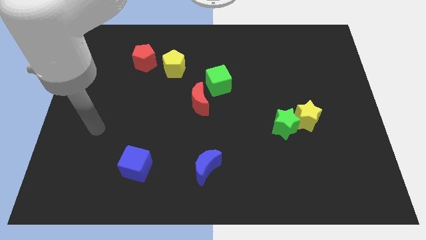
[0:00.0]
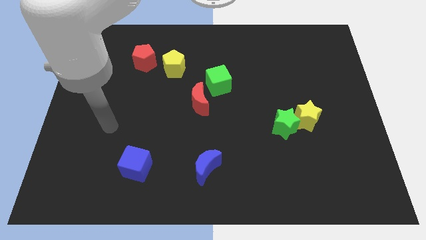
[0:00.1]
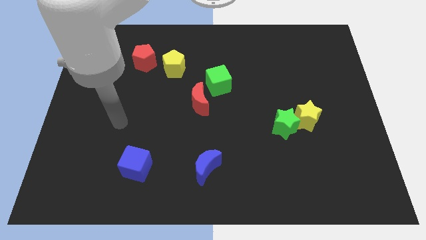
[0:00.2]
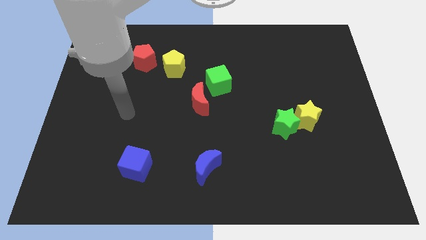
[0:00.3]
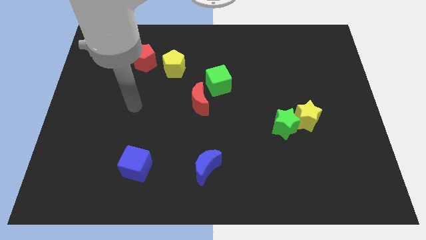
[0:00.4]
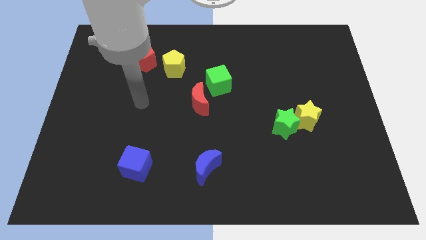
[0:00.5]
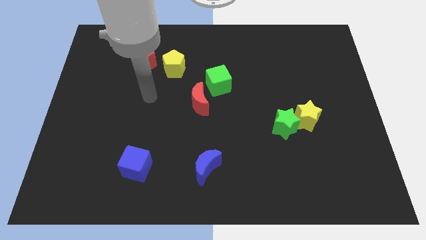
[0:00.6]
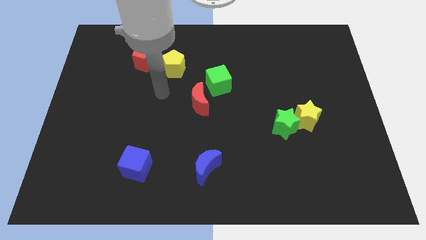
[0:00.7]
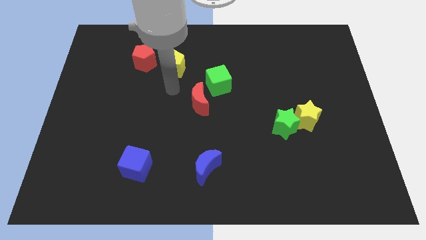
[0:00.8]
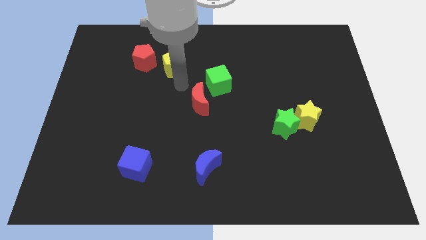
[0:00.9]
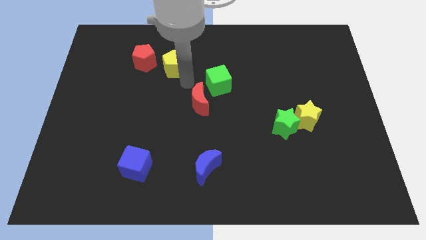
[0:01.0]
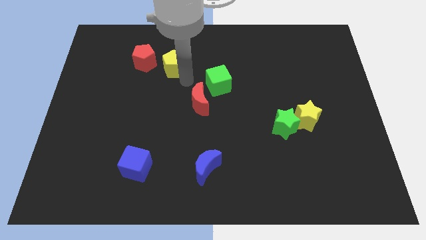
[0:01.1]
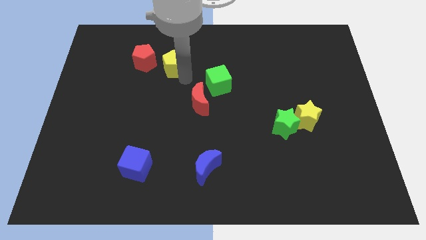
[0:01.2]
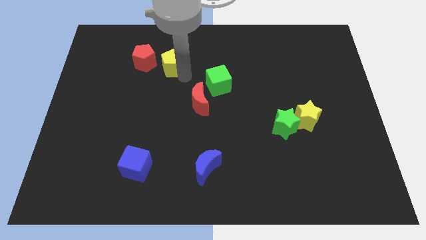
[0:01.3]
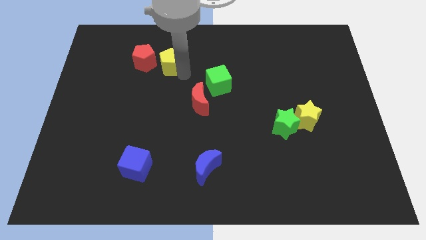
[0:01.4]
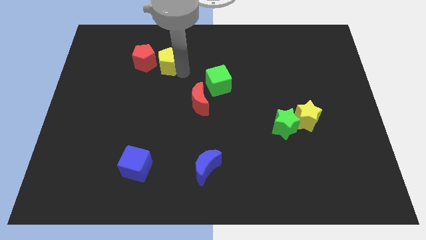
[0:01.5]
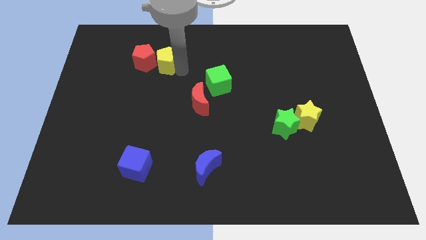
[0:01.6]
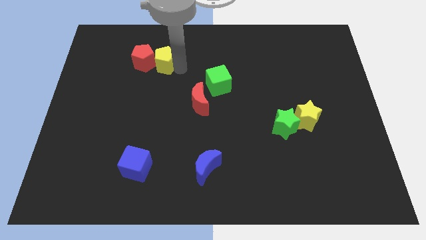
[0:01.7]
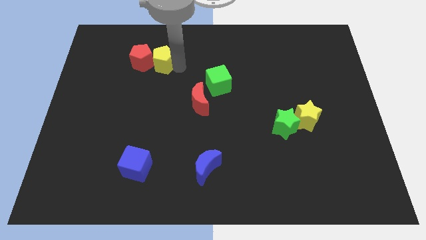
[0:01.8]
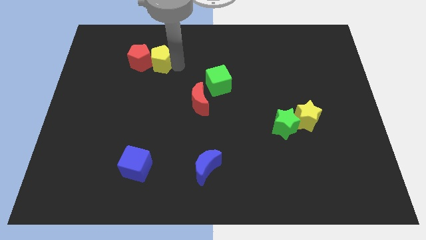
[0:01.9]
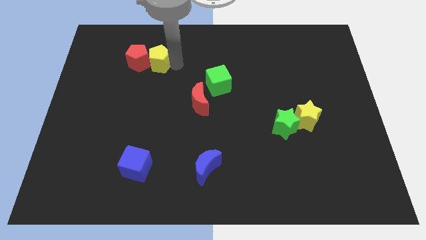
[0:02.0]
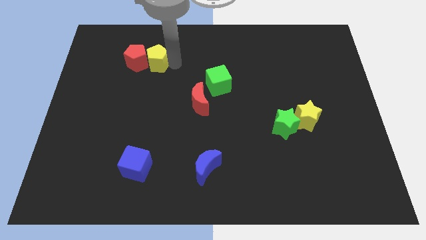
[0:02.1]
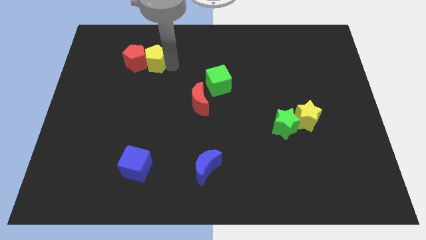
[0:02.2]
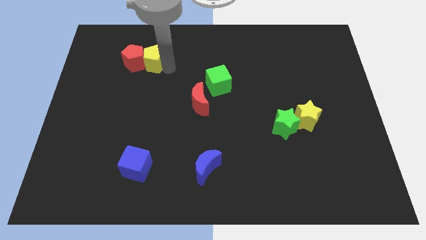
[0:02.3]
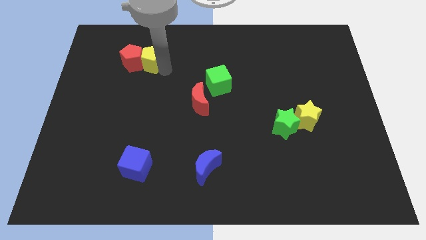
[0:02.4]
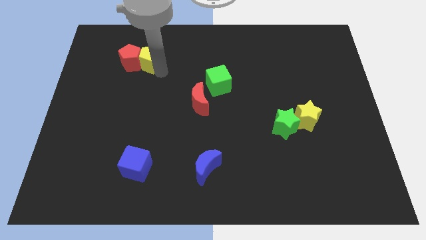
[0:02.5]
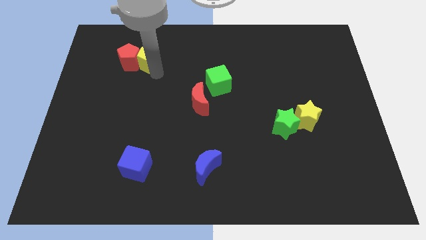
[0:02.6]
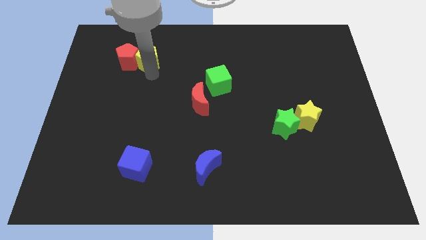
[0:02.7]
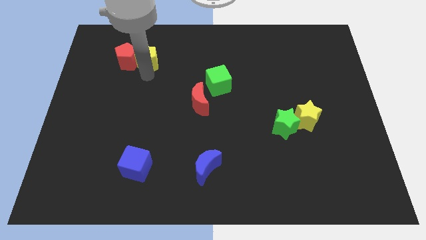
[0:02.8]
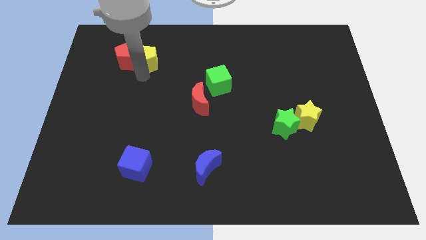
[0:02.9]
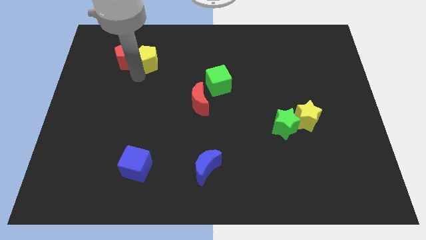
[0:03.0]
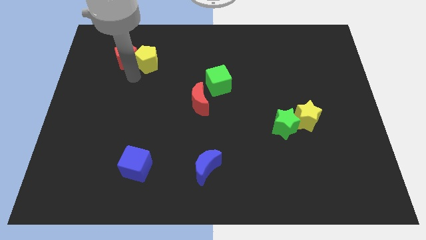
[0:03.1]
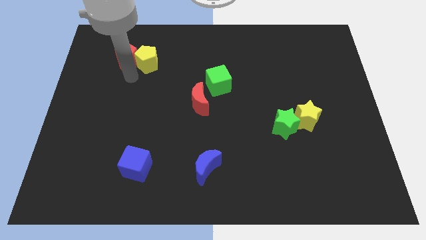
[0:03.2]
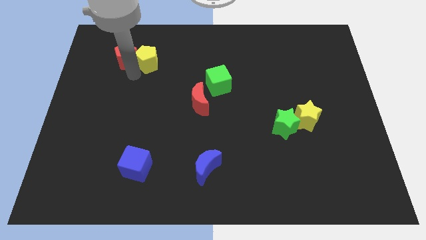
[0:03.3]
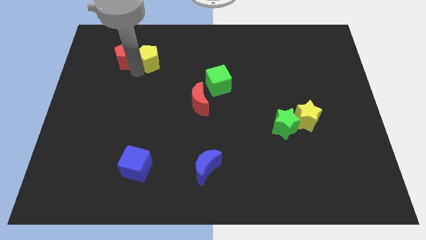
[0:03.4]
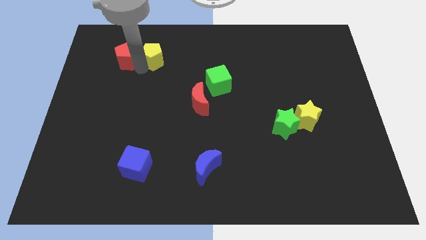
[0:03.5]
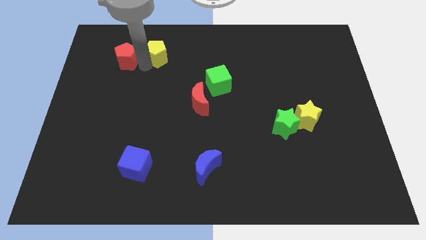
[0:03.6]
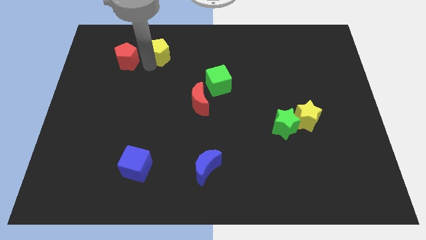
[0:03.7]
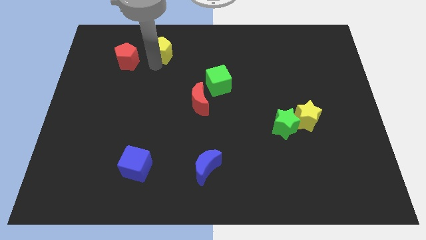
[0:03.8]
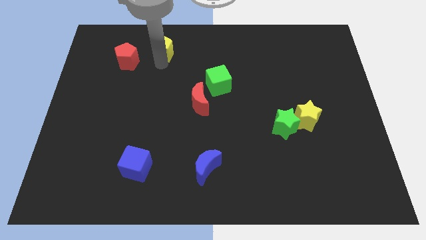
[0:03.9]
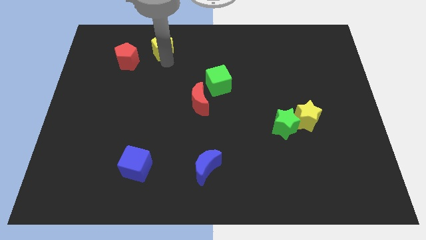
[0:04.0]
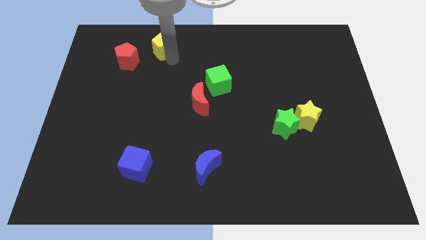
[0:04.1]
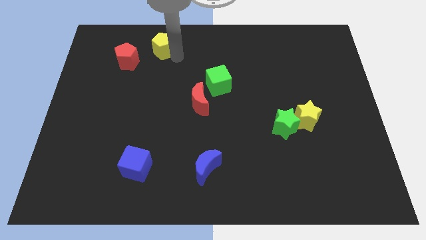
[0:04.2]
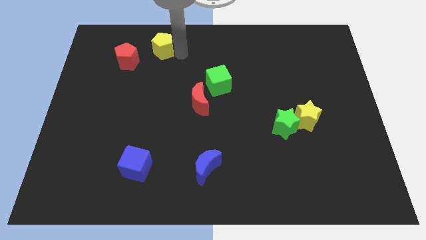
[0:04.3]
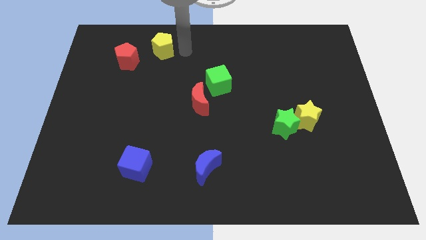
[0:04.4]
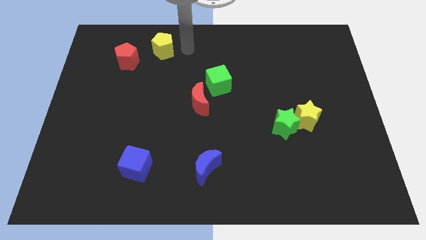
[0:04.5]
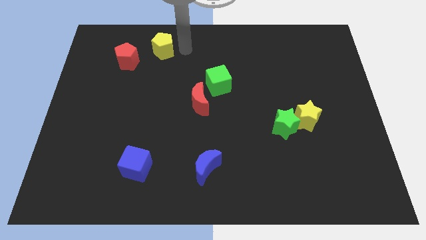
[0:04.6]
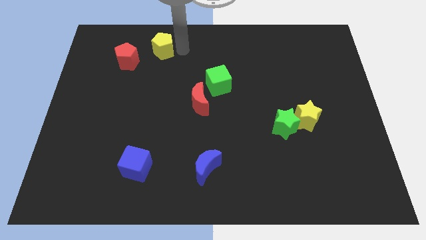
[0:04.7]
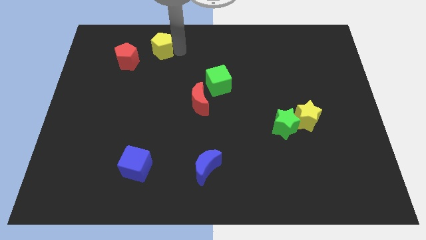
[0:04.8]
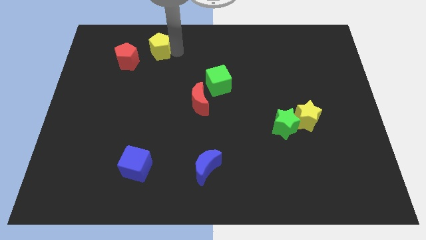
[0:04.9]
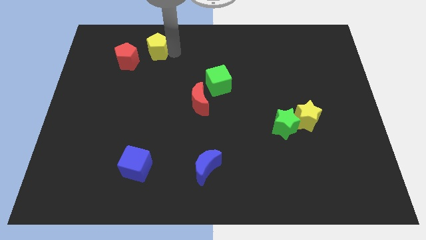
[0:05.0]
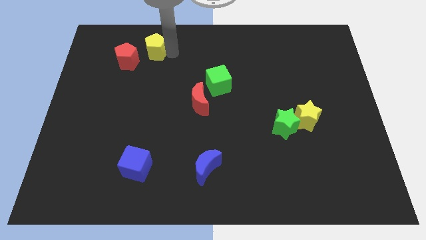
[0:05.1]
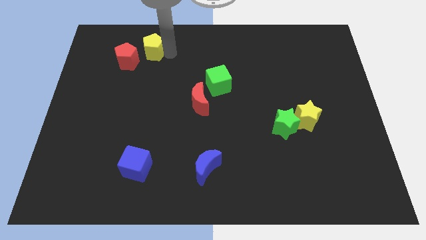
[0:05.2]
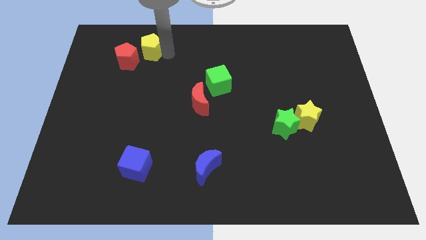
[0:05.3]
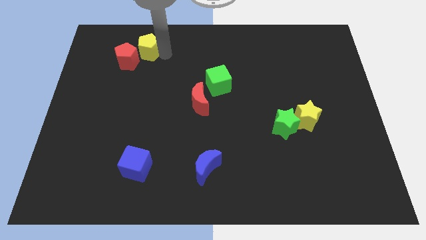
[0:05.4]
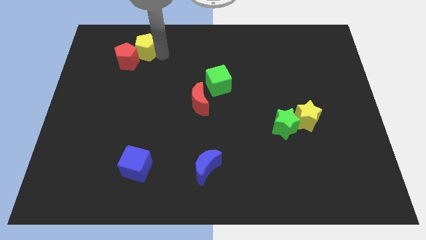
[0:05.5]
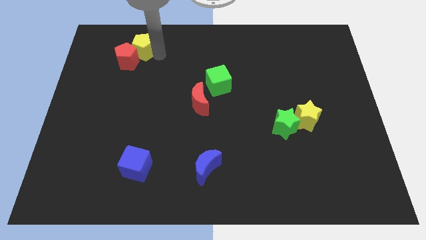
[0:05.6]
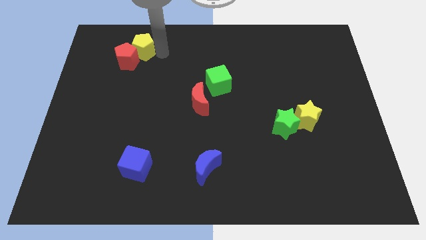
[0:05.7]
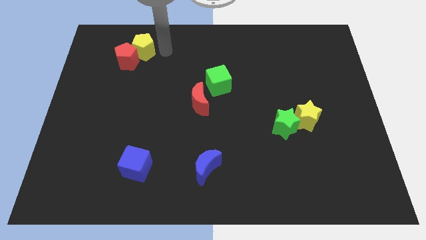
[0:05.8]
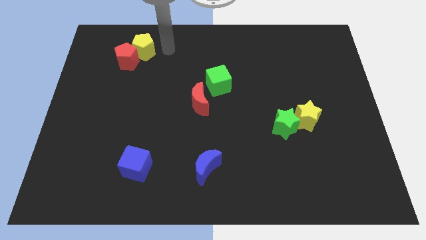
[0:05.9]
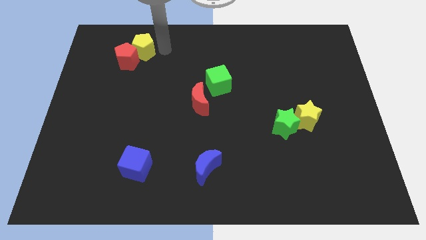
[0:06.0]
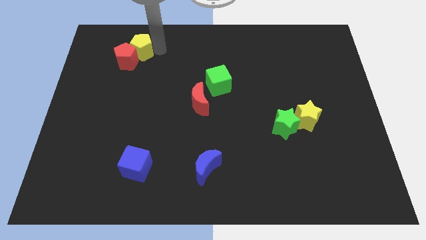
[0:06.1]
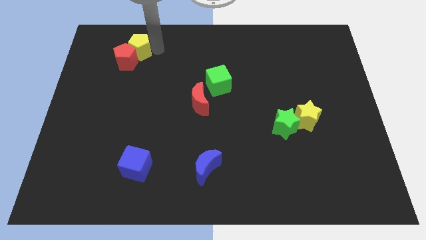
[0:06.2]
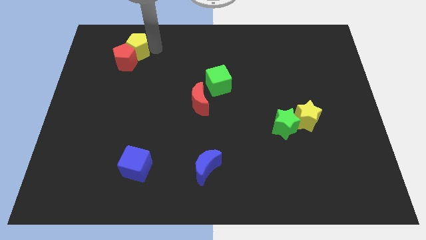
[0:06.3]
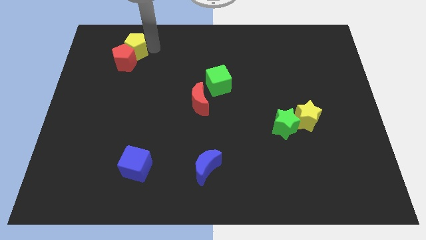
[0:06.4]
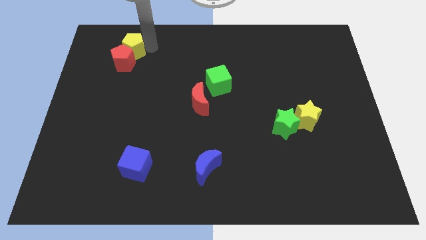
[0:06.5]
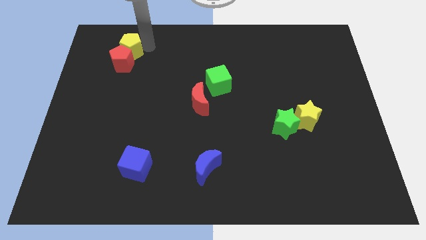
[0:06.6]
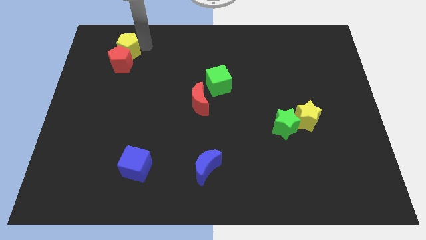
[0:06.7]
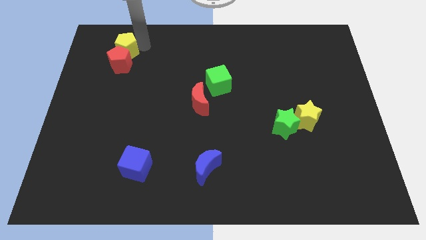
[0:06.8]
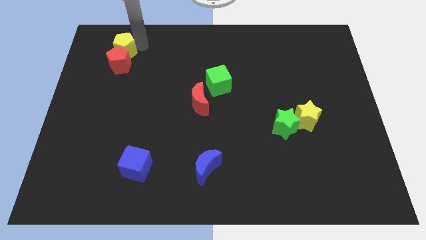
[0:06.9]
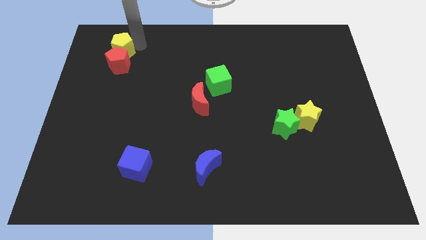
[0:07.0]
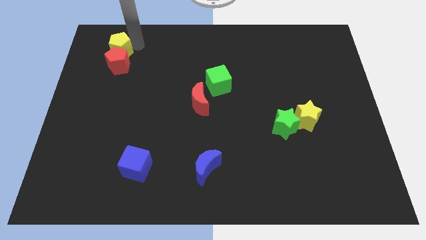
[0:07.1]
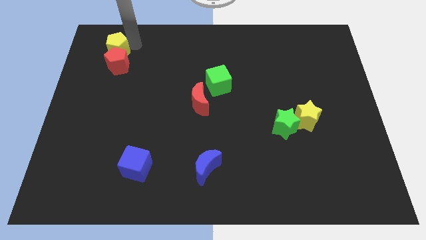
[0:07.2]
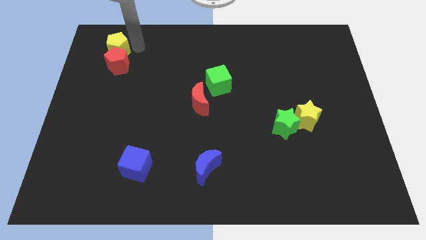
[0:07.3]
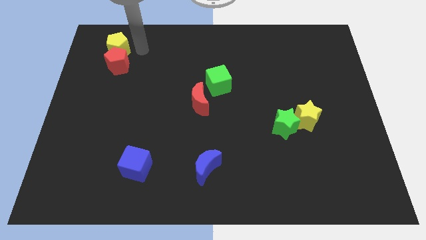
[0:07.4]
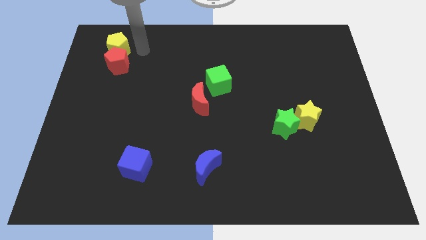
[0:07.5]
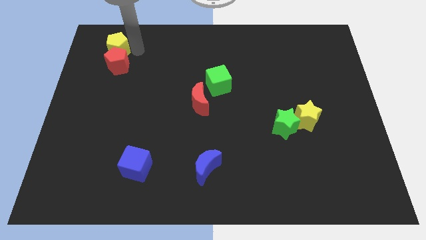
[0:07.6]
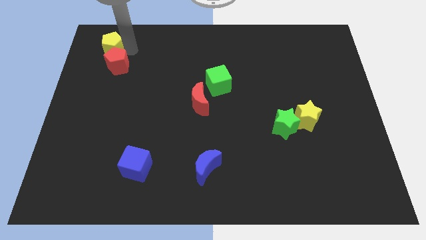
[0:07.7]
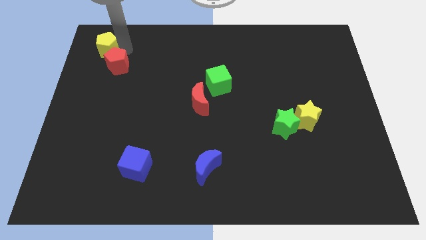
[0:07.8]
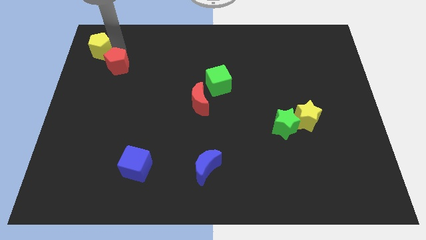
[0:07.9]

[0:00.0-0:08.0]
put the yellow pentagon to the top left of the board
